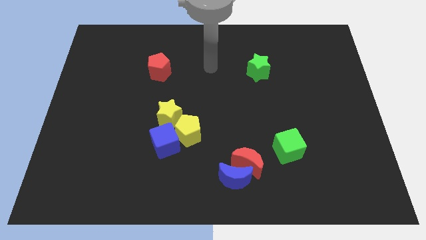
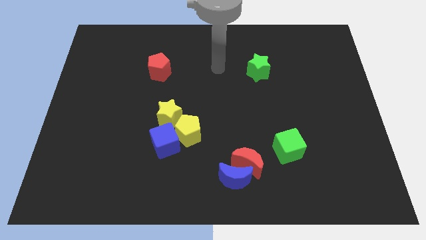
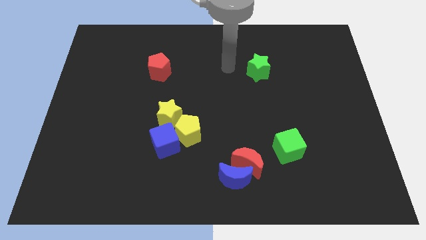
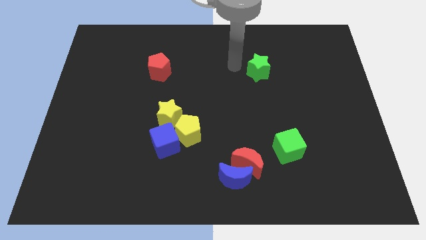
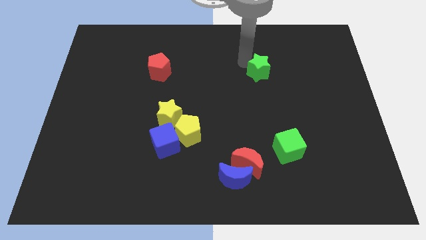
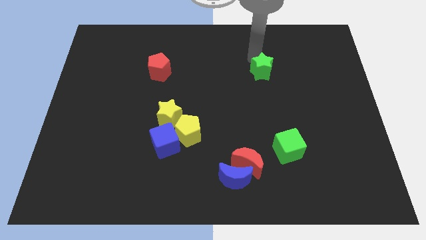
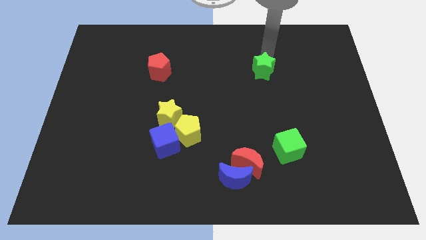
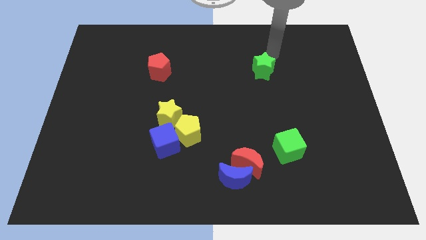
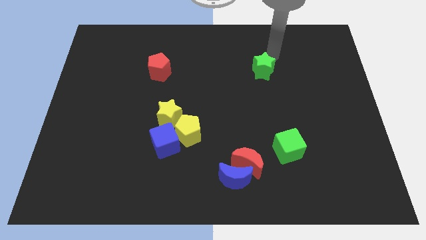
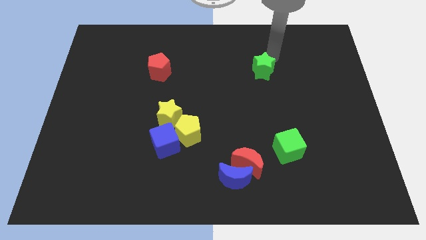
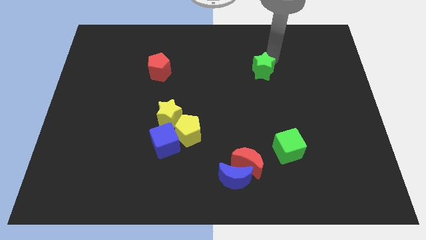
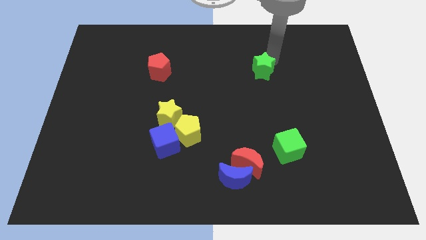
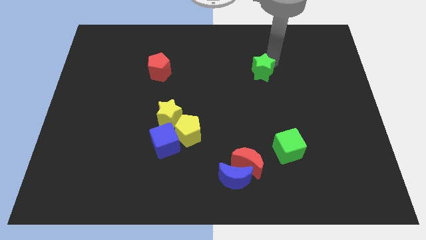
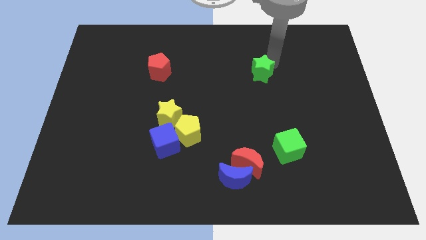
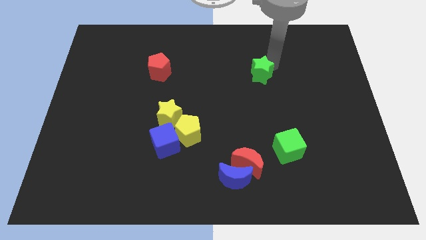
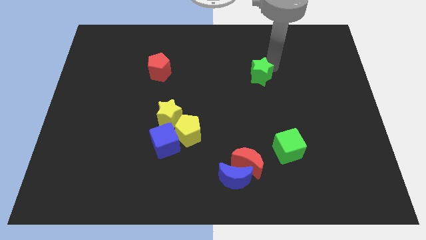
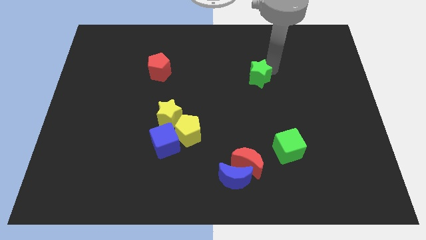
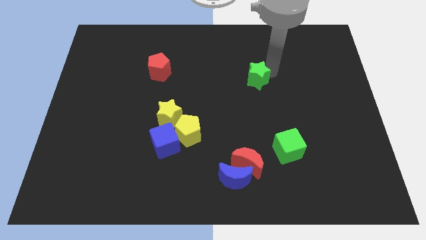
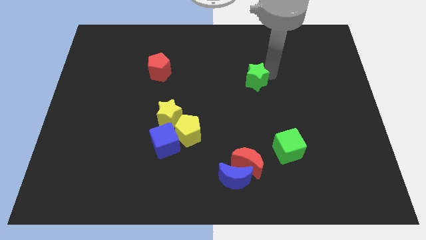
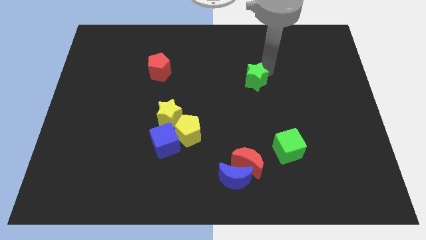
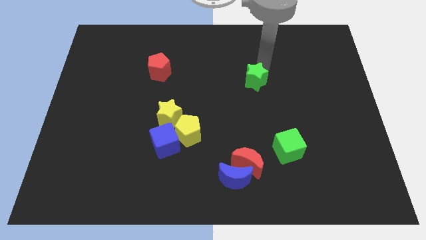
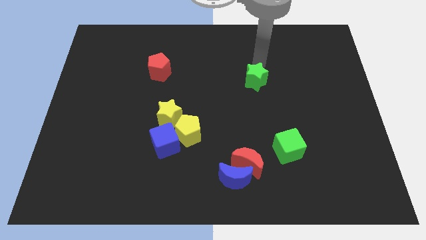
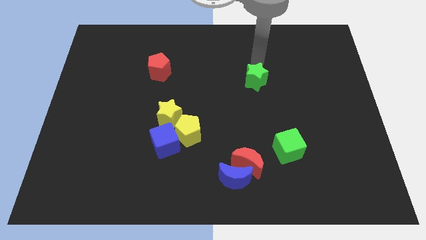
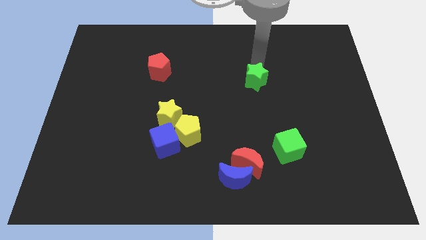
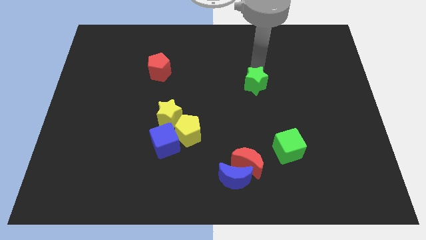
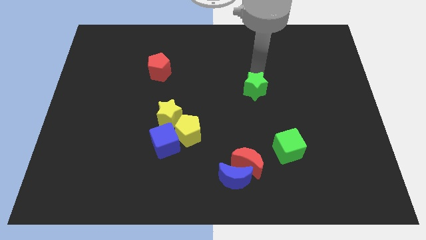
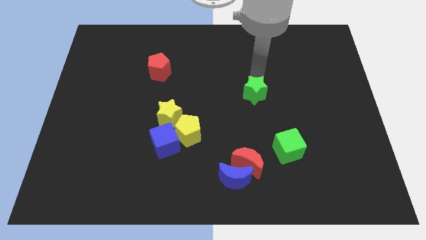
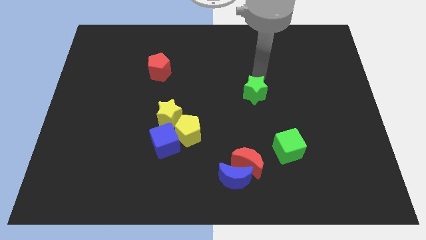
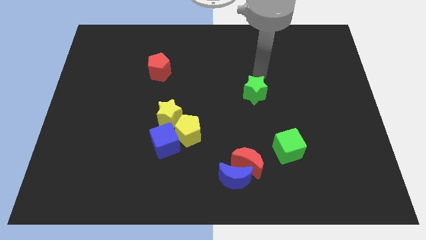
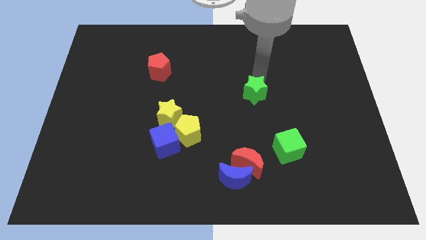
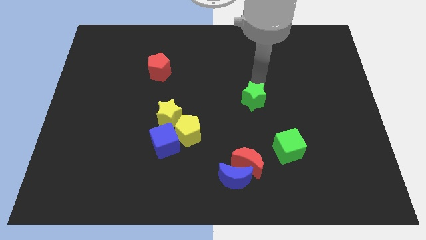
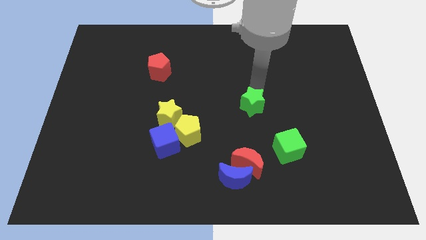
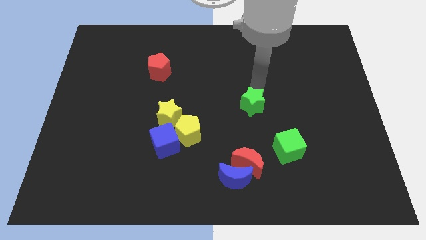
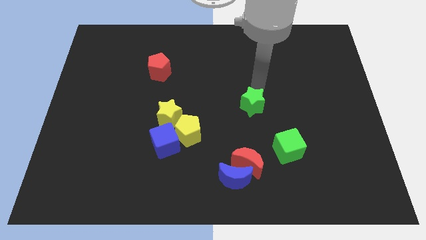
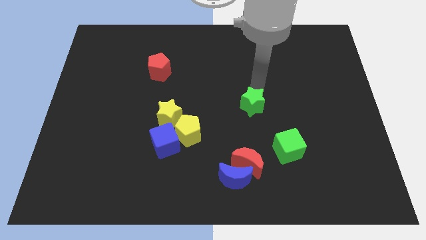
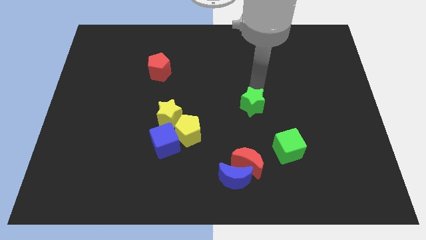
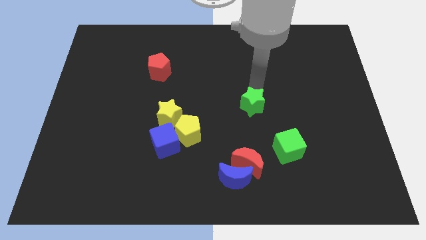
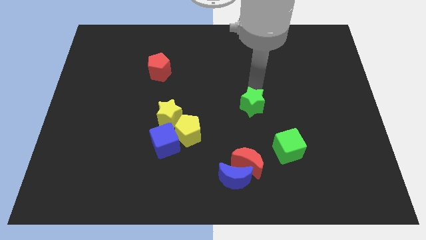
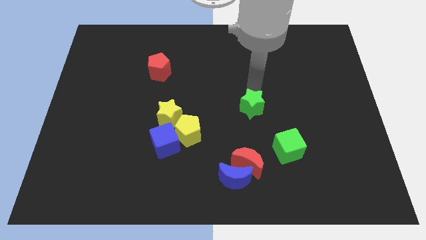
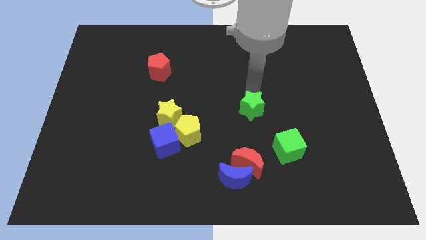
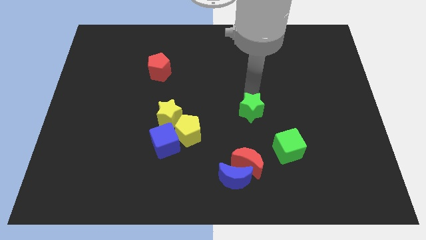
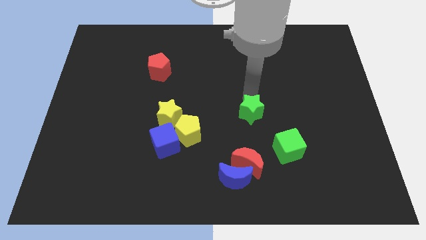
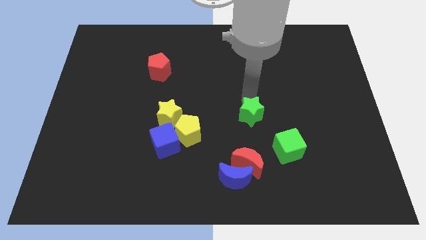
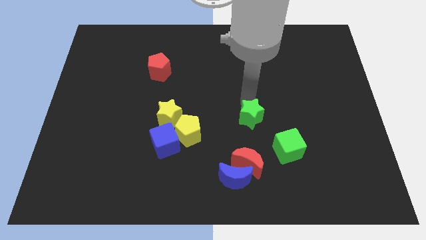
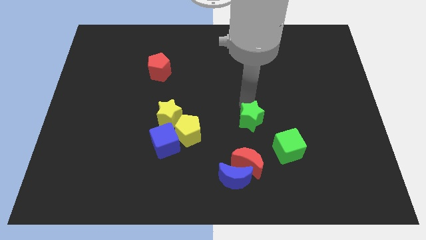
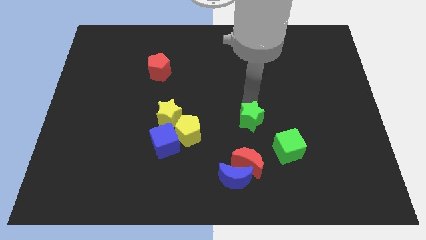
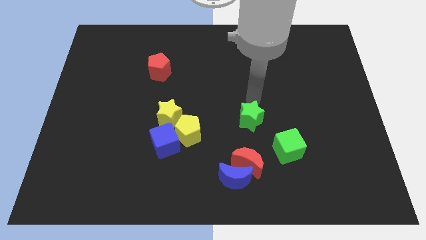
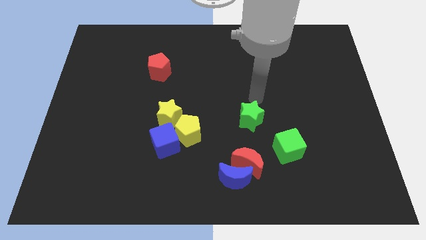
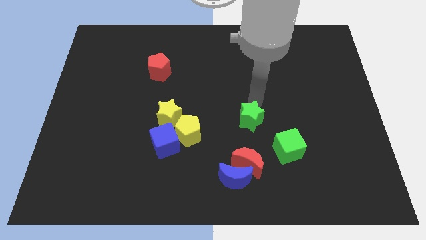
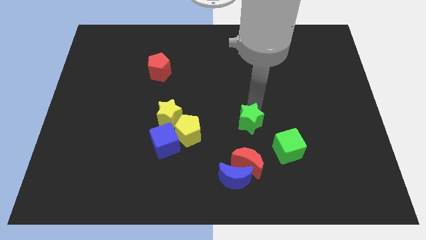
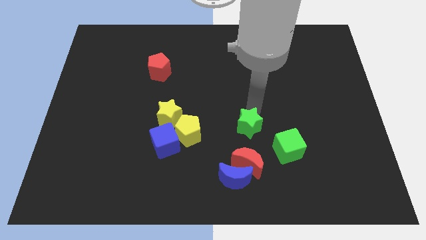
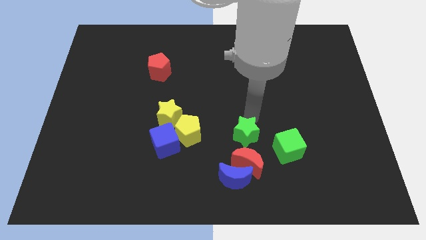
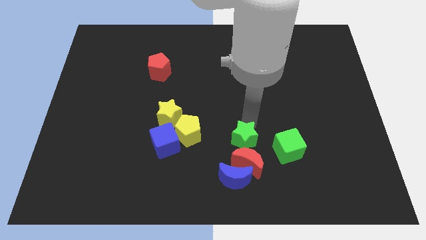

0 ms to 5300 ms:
slide the green star next to the red moon

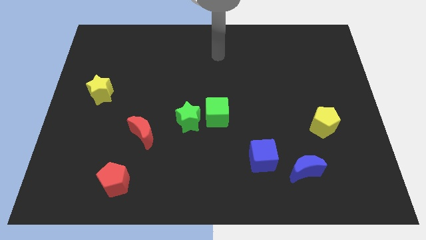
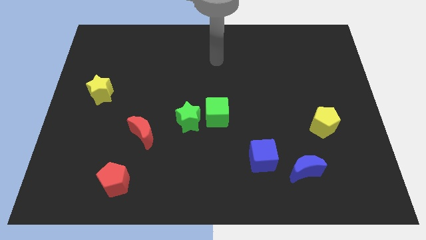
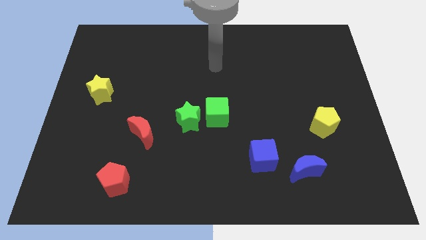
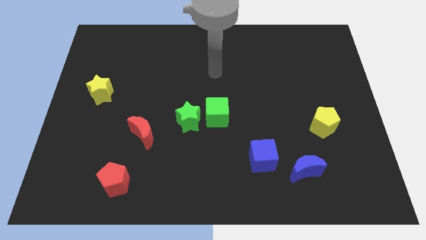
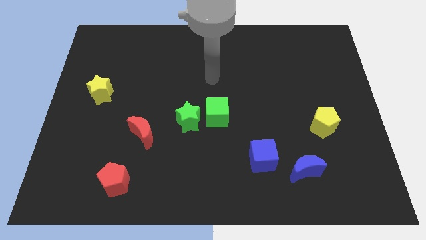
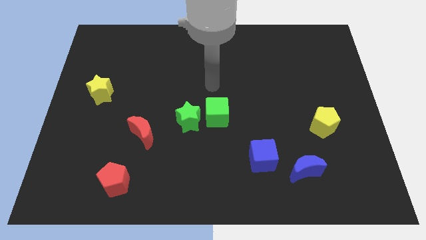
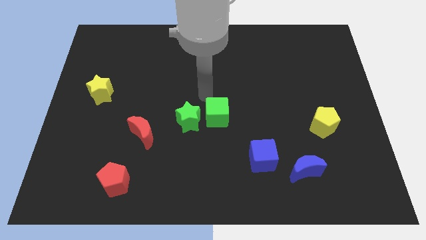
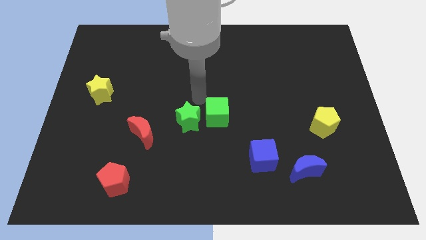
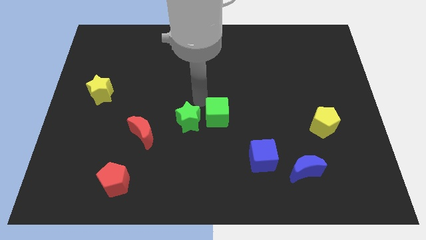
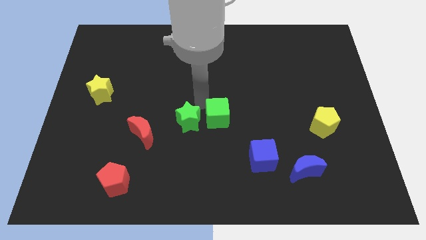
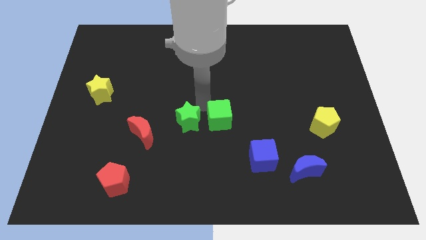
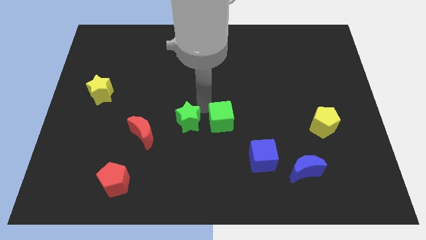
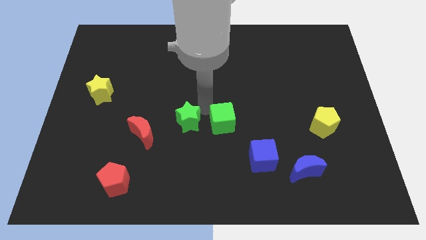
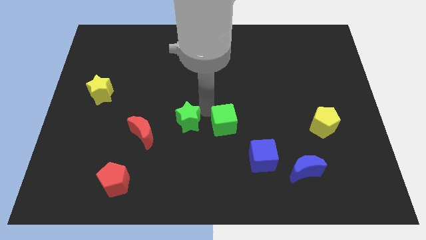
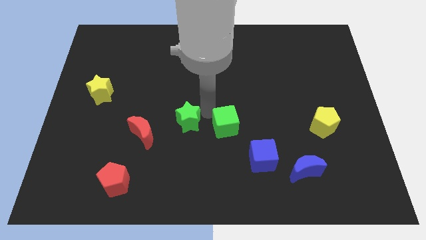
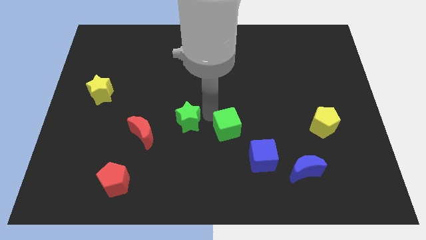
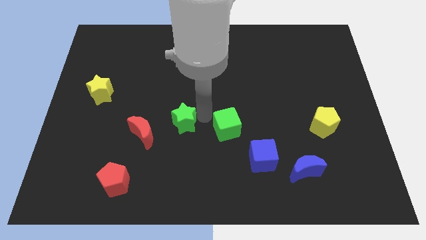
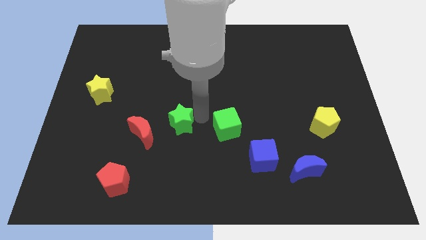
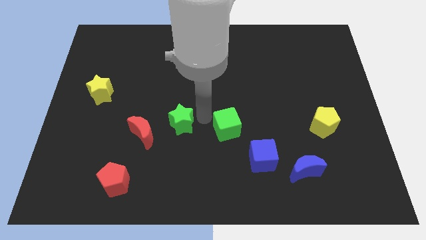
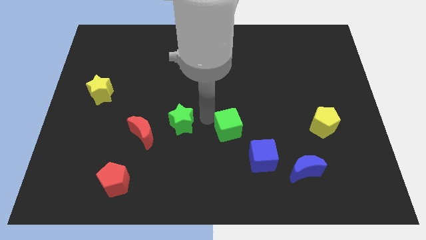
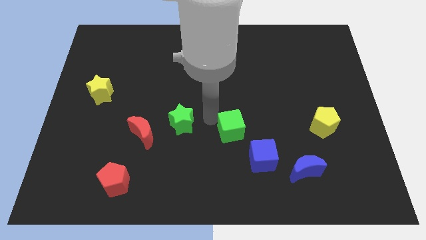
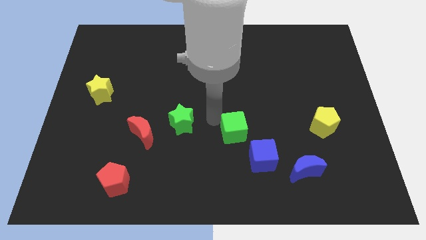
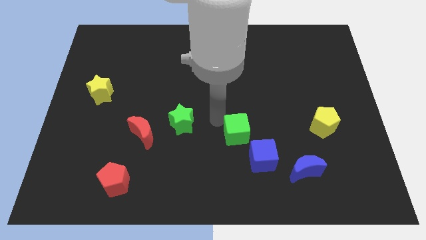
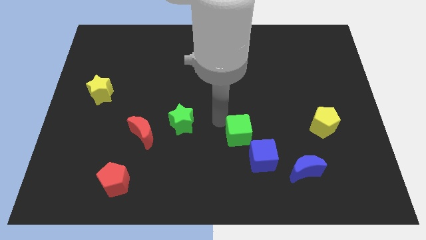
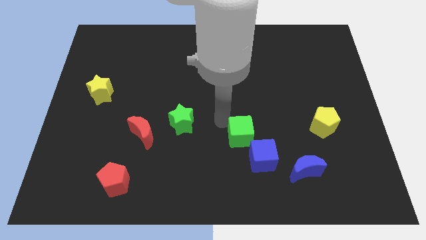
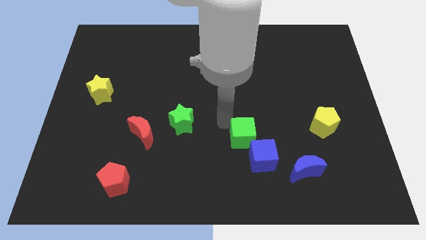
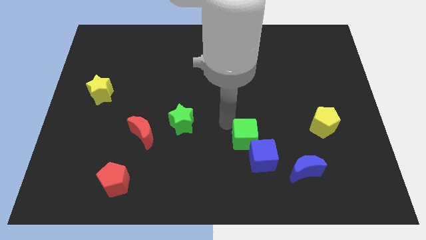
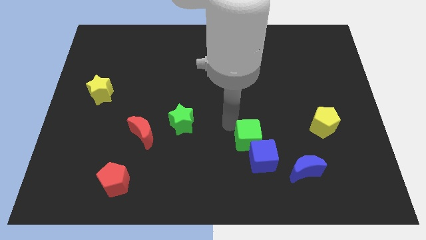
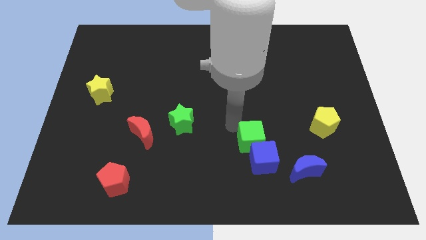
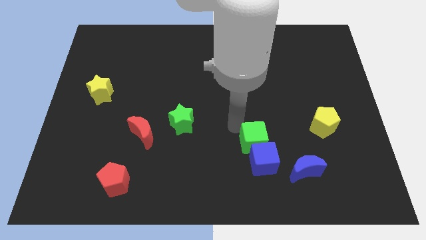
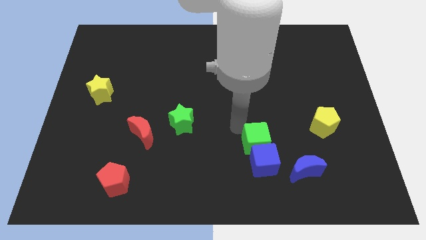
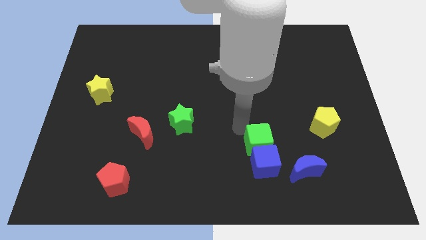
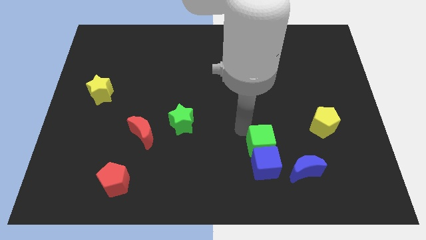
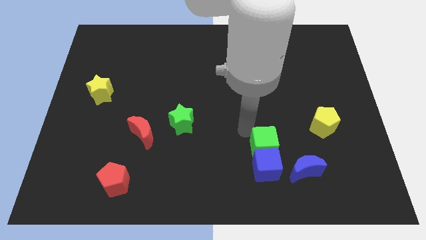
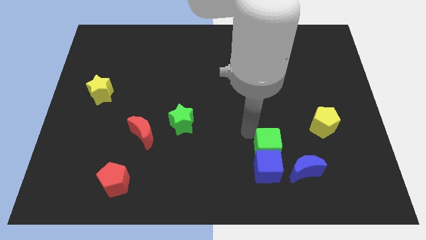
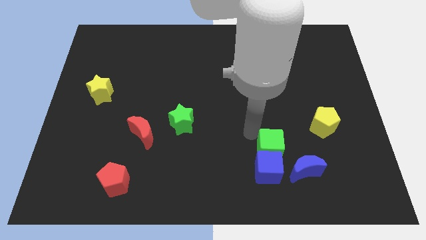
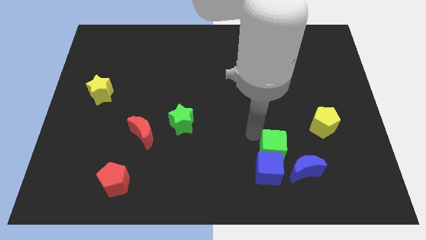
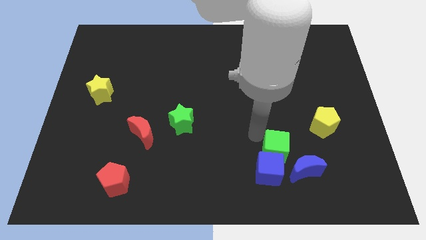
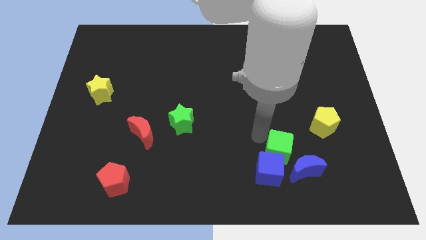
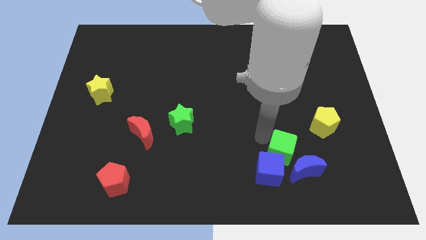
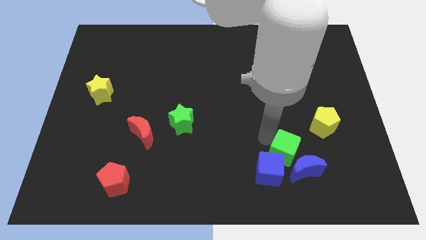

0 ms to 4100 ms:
put the green cube close to the blue moon
